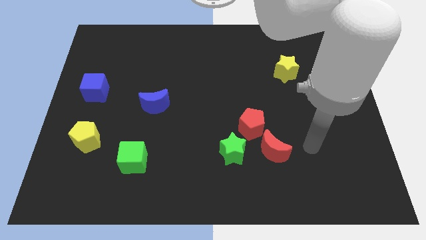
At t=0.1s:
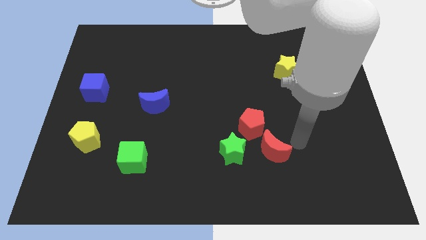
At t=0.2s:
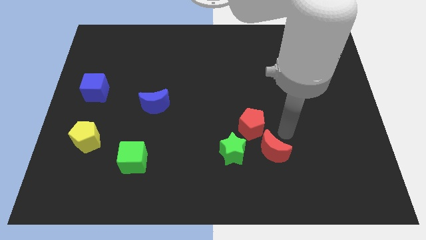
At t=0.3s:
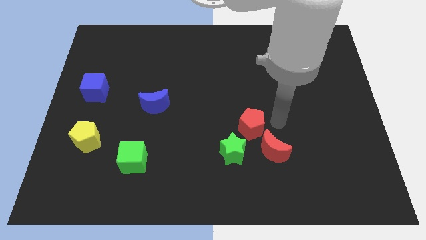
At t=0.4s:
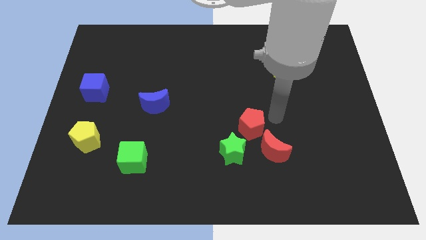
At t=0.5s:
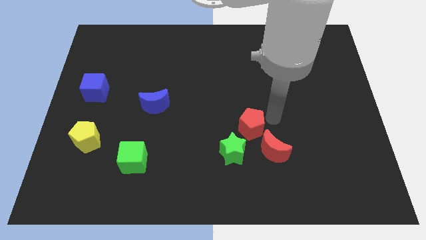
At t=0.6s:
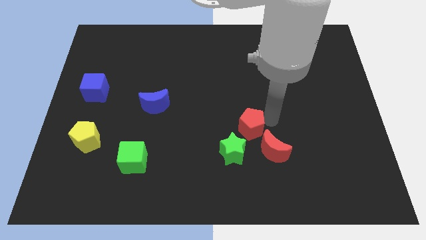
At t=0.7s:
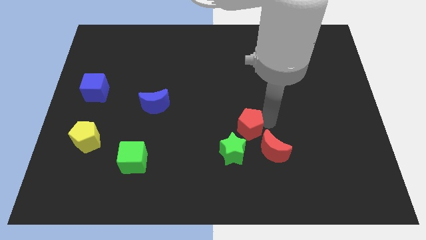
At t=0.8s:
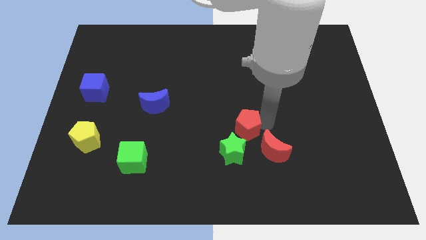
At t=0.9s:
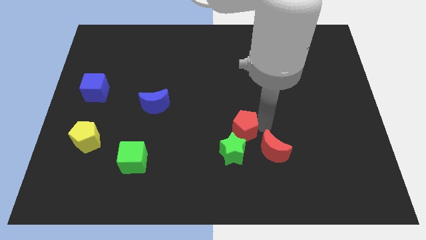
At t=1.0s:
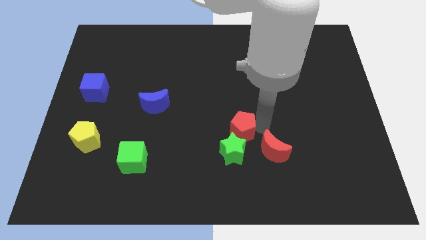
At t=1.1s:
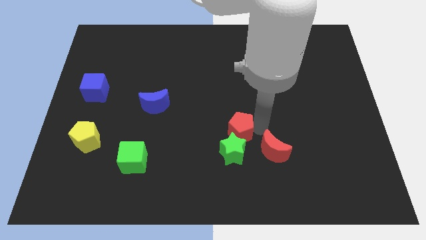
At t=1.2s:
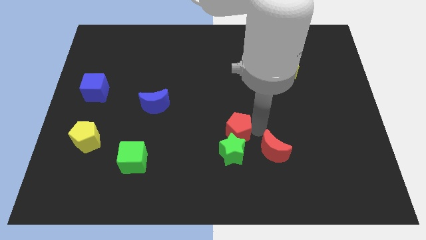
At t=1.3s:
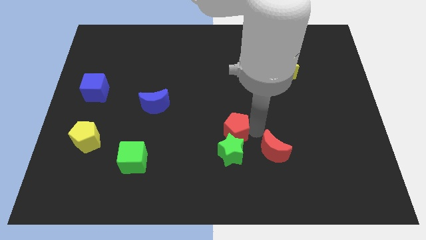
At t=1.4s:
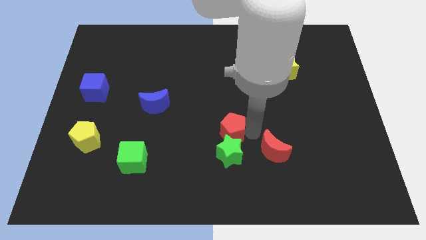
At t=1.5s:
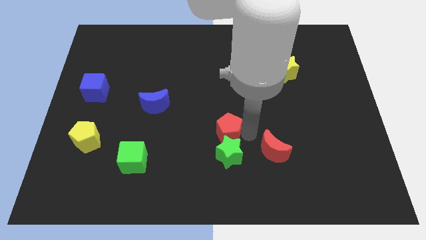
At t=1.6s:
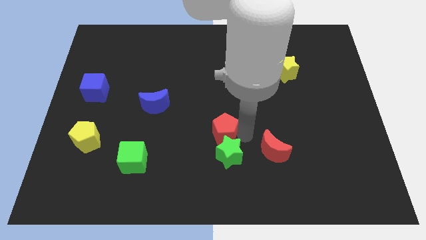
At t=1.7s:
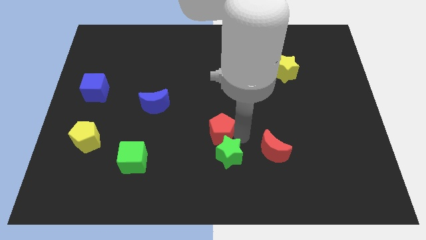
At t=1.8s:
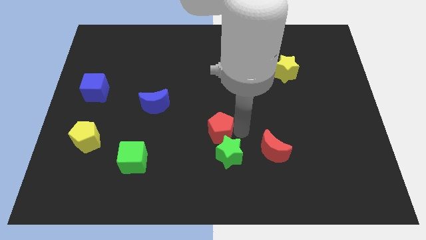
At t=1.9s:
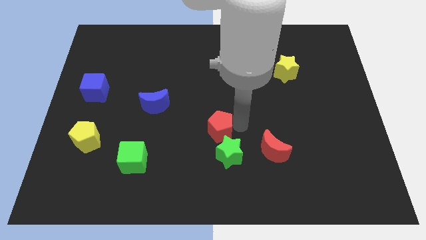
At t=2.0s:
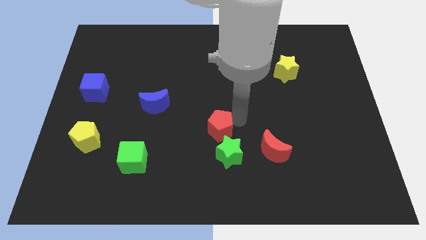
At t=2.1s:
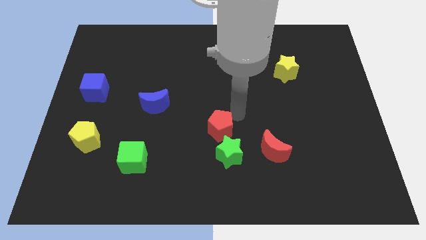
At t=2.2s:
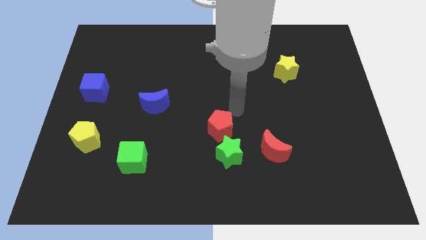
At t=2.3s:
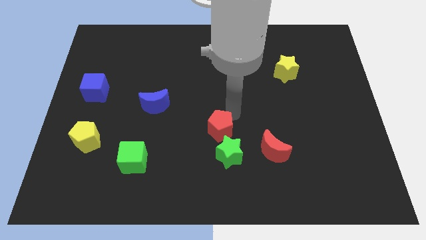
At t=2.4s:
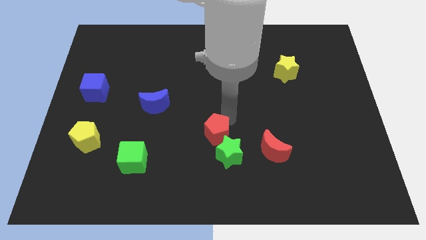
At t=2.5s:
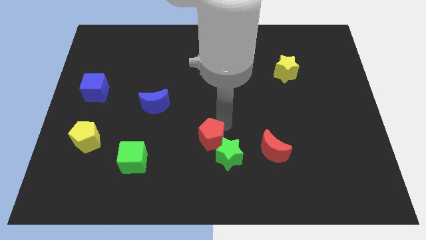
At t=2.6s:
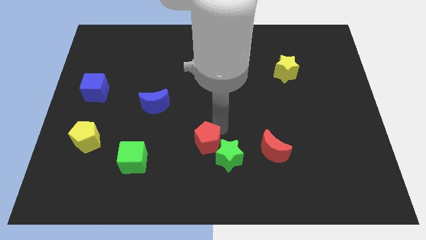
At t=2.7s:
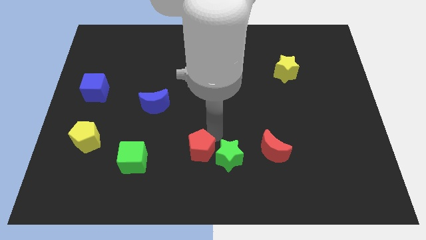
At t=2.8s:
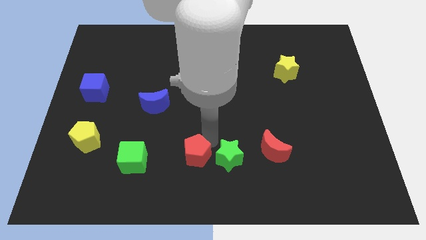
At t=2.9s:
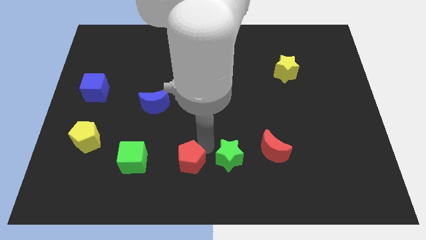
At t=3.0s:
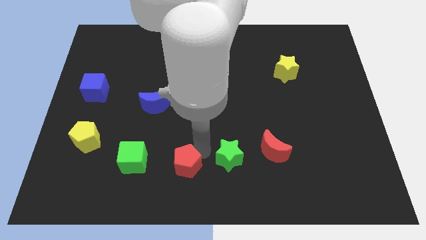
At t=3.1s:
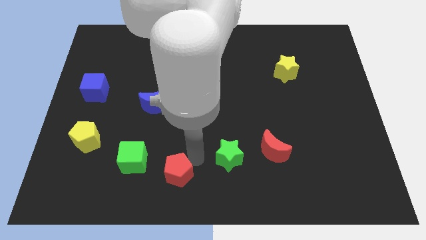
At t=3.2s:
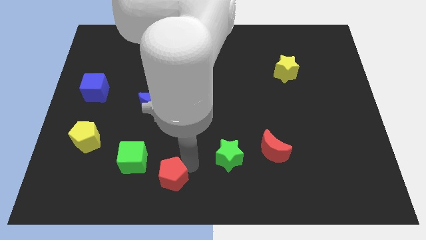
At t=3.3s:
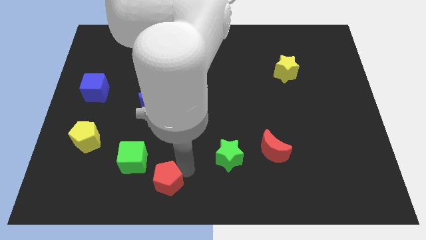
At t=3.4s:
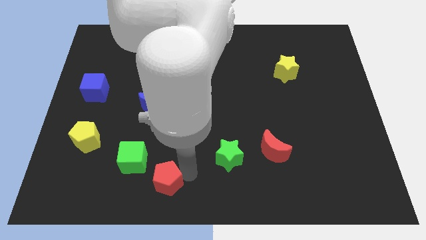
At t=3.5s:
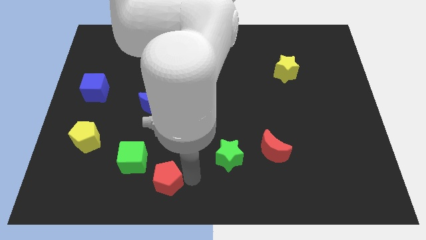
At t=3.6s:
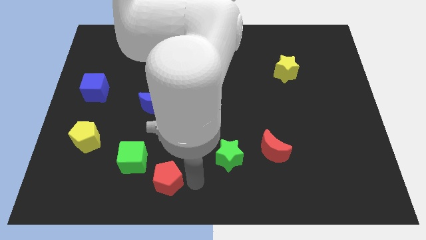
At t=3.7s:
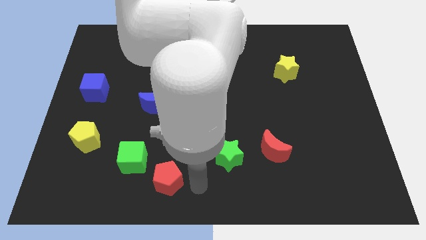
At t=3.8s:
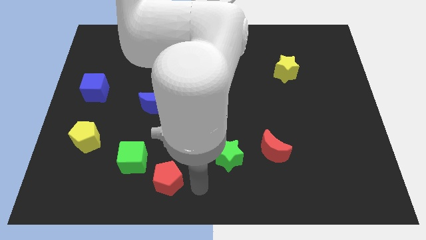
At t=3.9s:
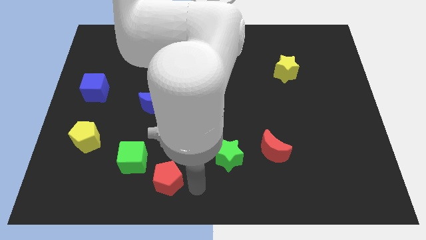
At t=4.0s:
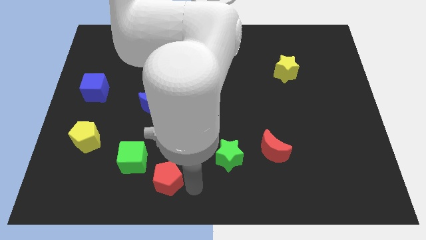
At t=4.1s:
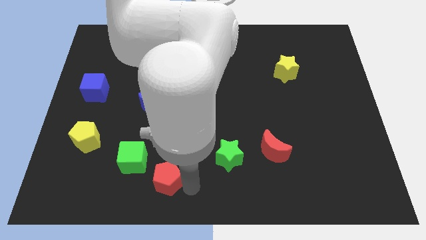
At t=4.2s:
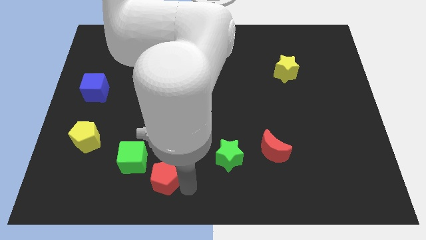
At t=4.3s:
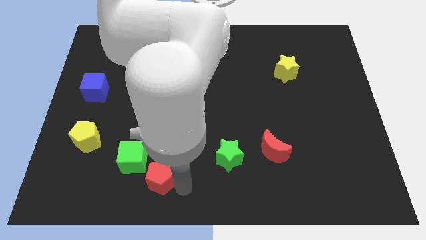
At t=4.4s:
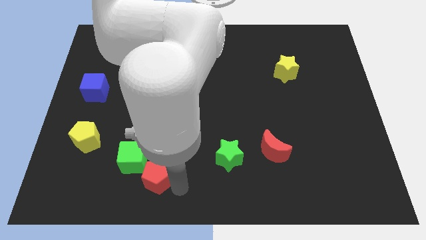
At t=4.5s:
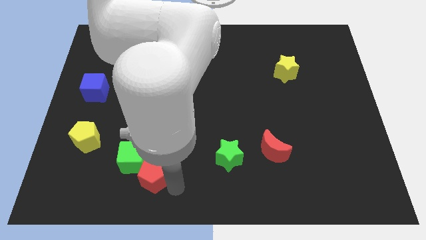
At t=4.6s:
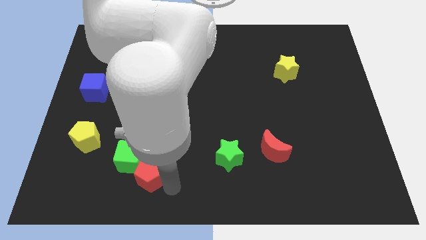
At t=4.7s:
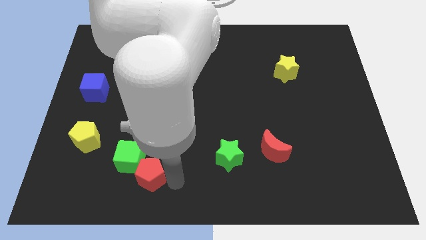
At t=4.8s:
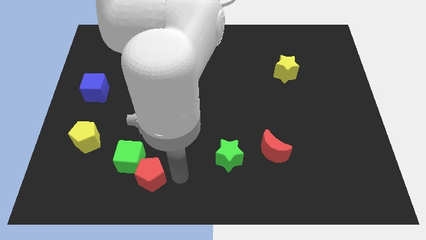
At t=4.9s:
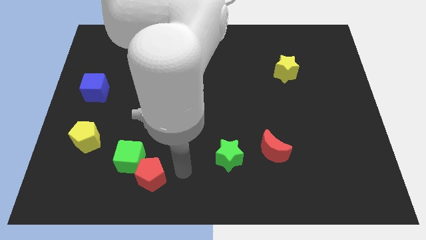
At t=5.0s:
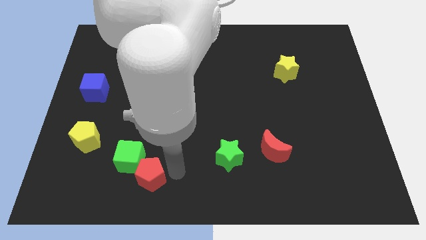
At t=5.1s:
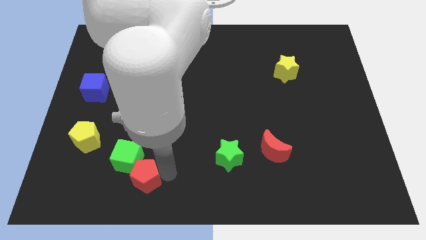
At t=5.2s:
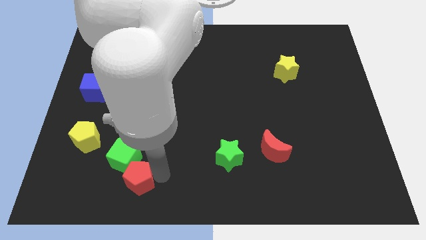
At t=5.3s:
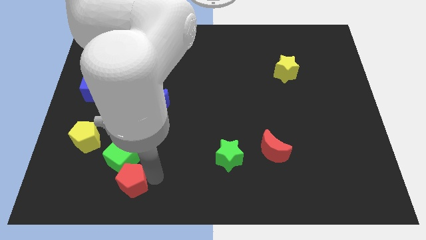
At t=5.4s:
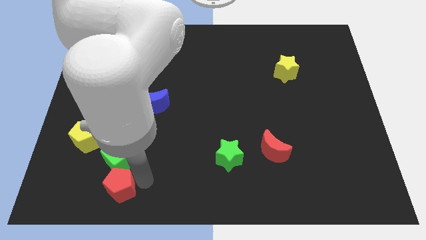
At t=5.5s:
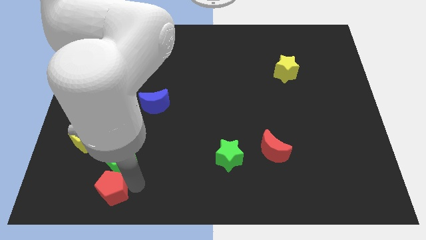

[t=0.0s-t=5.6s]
push the red pentagon to the bottom left side of the green cube

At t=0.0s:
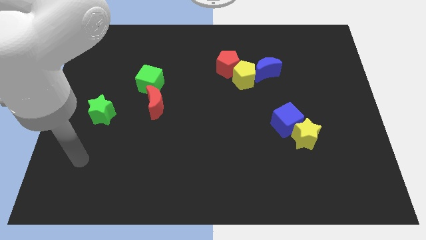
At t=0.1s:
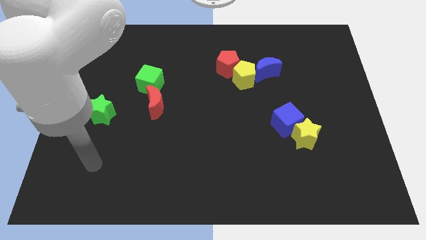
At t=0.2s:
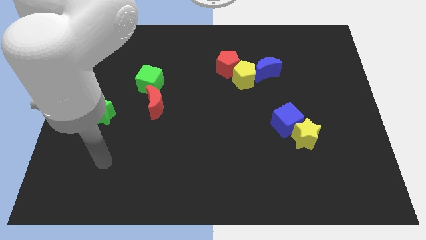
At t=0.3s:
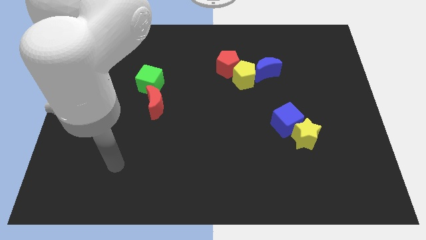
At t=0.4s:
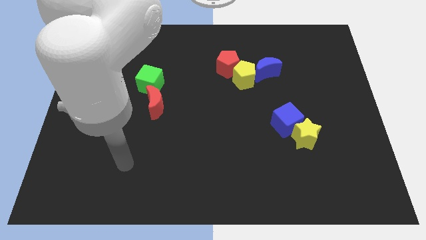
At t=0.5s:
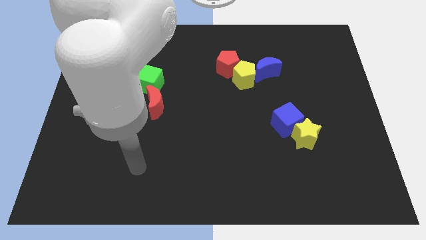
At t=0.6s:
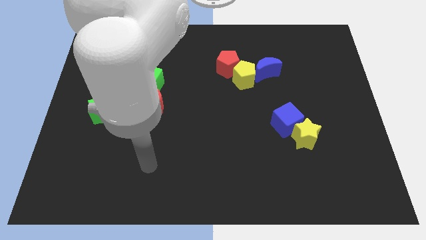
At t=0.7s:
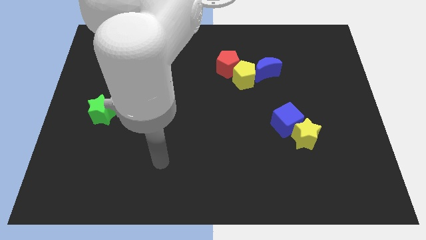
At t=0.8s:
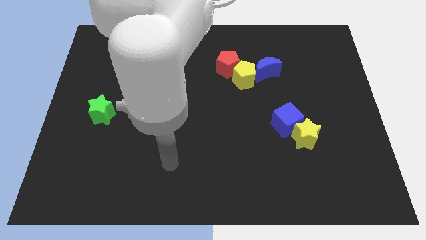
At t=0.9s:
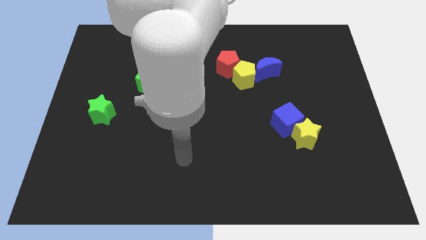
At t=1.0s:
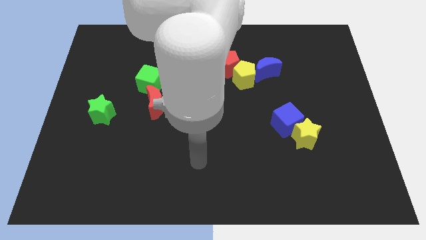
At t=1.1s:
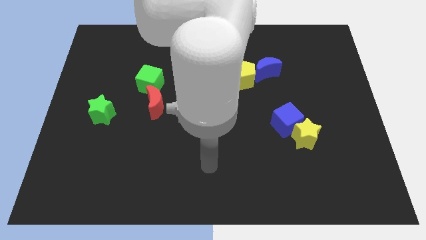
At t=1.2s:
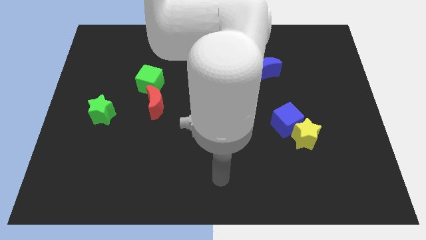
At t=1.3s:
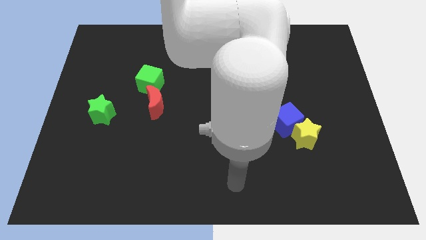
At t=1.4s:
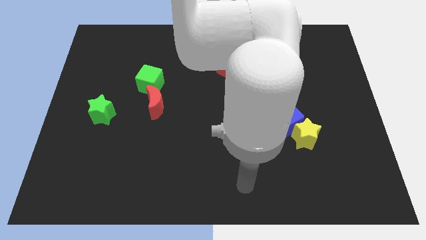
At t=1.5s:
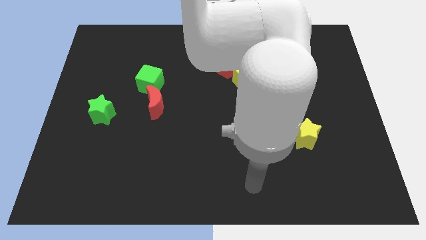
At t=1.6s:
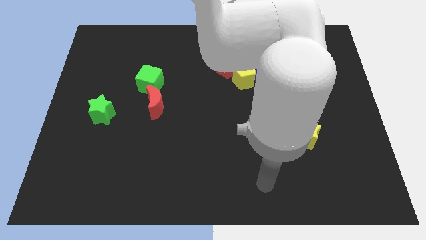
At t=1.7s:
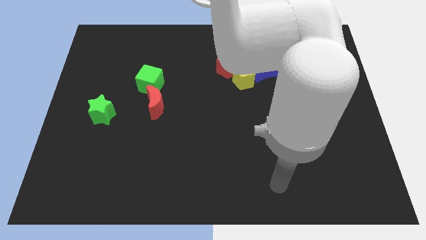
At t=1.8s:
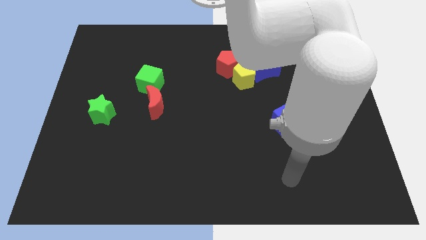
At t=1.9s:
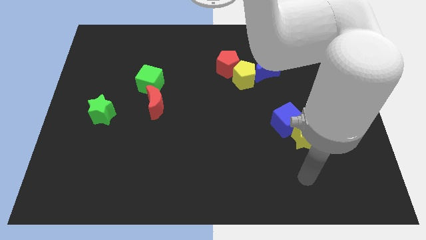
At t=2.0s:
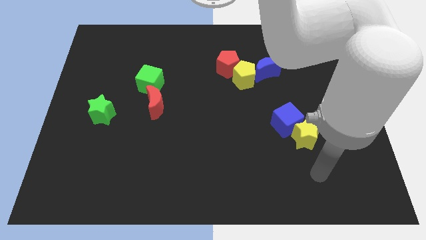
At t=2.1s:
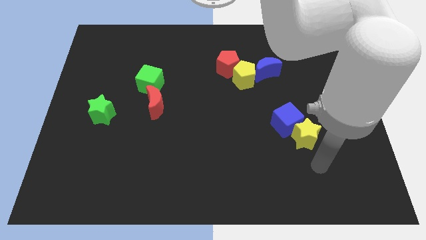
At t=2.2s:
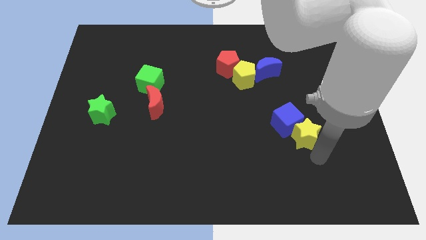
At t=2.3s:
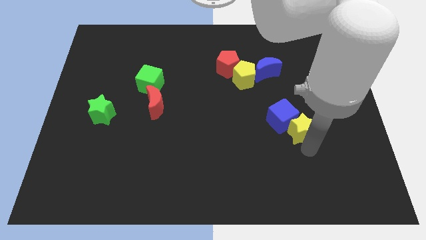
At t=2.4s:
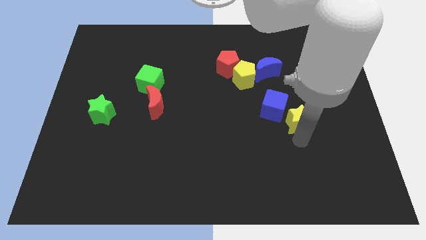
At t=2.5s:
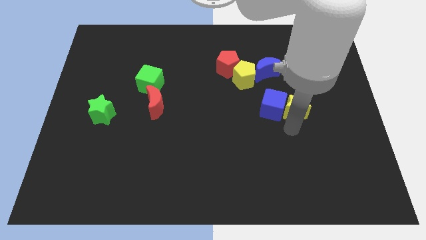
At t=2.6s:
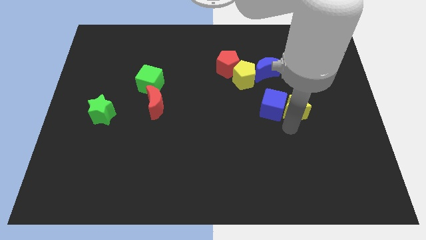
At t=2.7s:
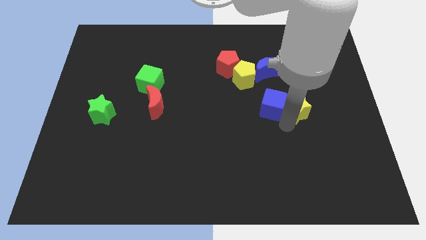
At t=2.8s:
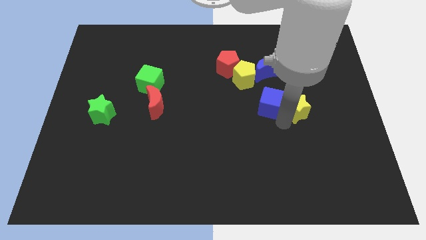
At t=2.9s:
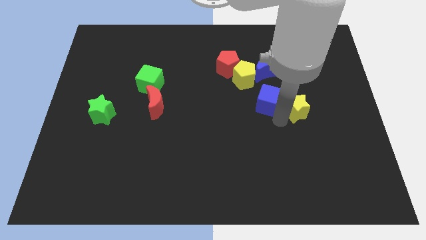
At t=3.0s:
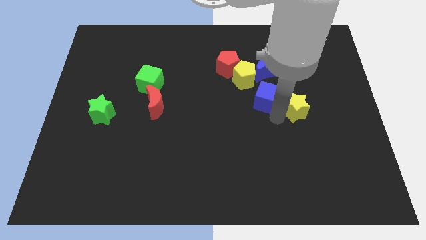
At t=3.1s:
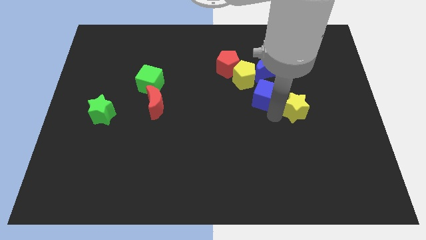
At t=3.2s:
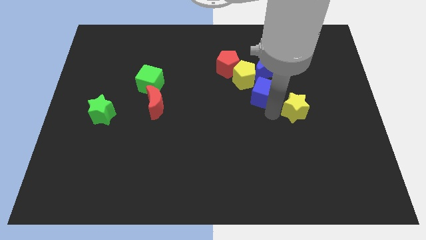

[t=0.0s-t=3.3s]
slide the blue cube diagonally down and to the right of the red pentagon
